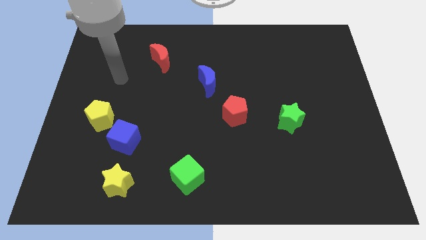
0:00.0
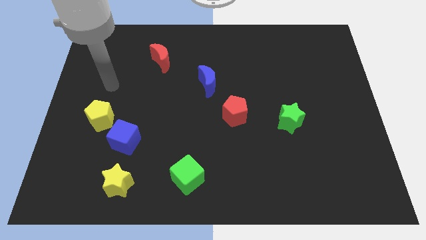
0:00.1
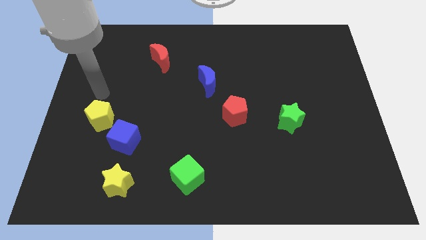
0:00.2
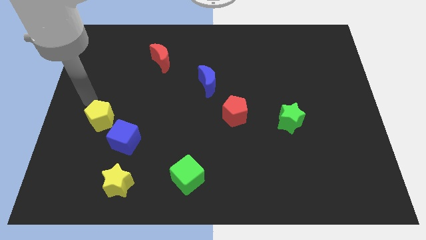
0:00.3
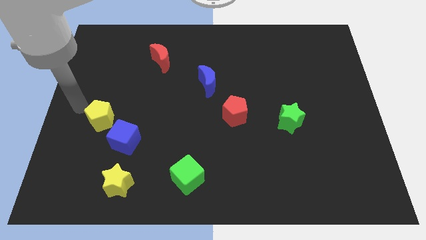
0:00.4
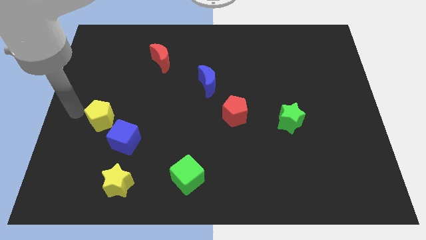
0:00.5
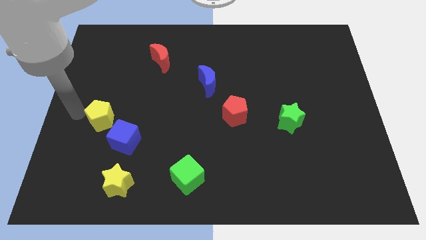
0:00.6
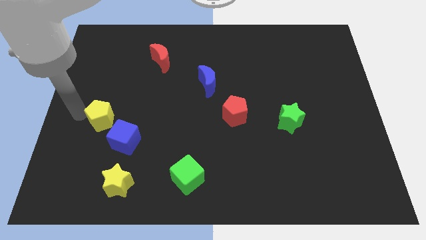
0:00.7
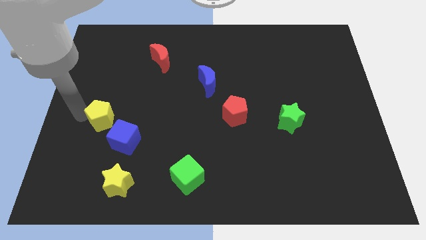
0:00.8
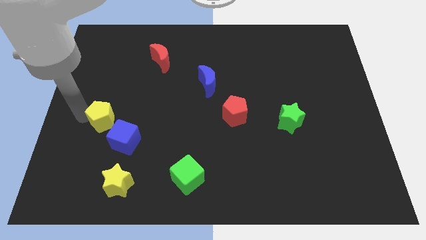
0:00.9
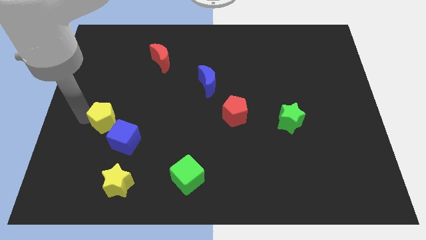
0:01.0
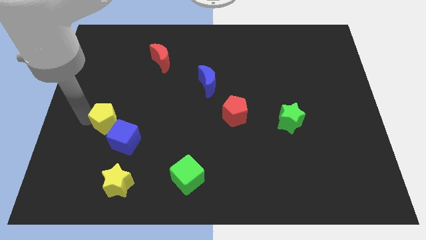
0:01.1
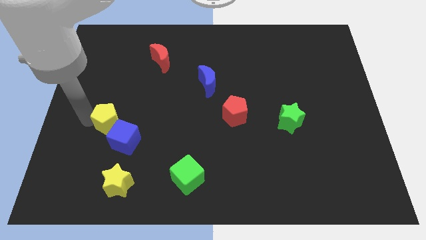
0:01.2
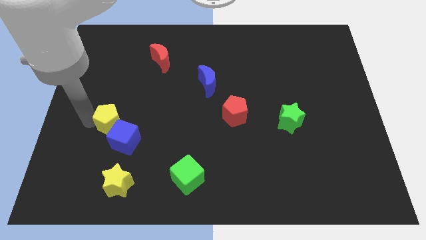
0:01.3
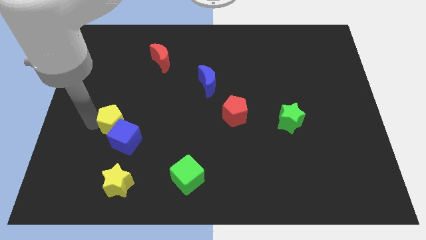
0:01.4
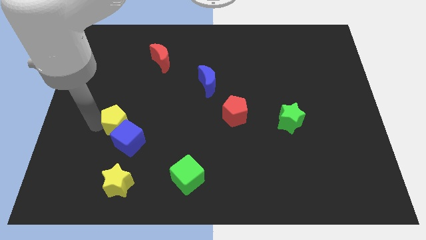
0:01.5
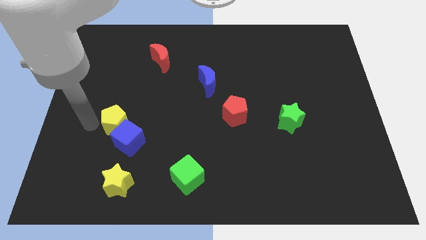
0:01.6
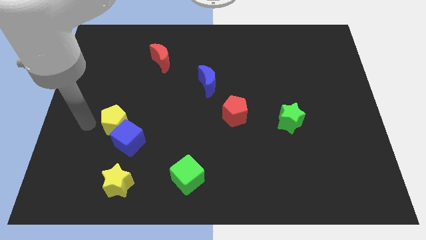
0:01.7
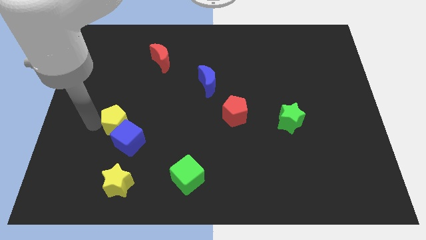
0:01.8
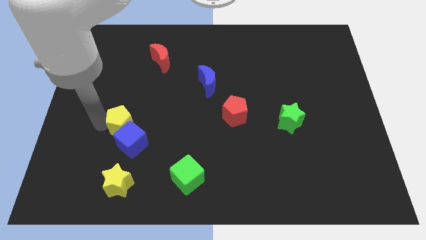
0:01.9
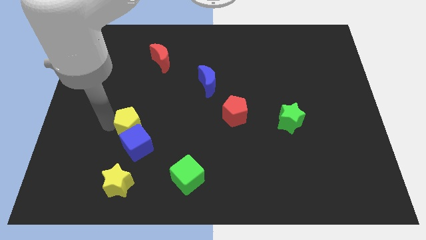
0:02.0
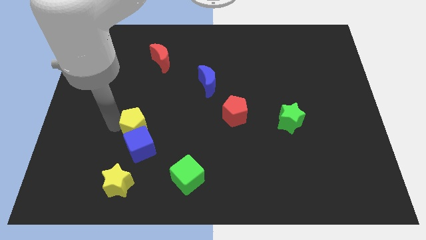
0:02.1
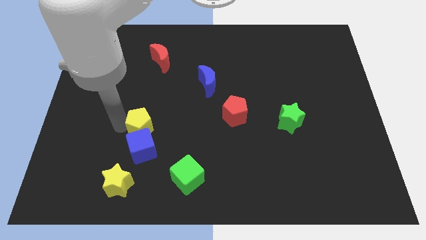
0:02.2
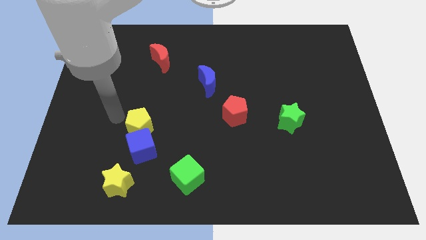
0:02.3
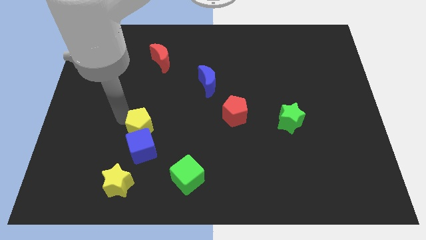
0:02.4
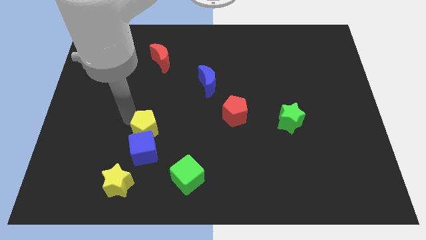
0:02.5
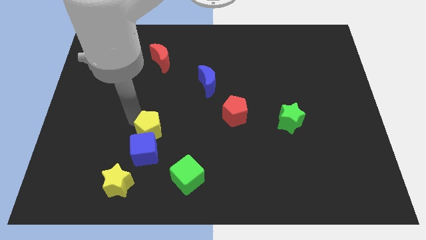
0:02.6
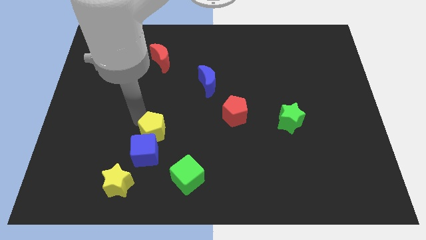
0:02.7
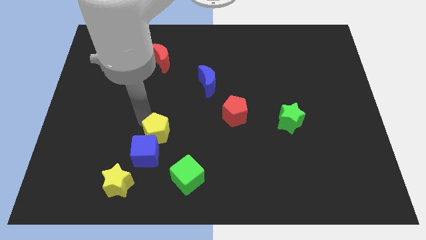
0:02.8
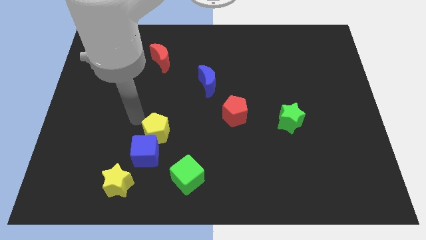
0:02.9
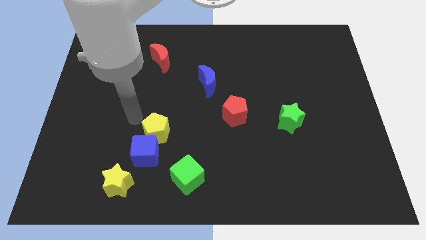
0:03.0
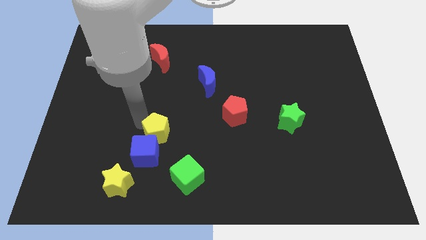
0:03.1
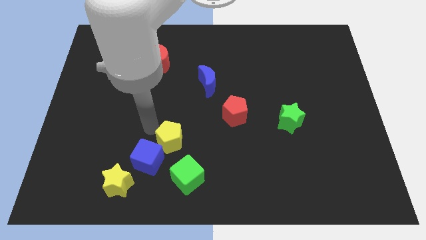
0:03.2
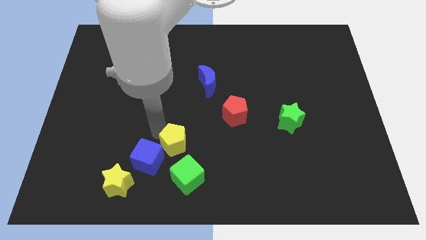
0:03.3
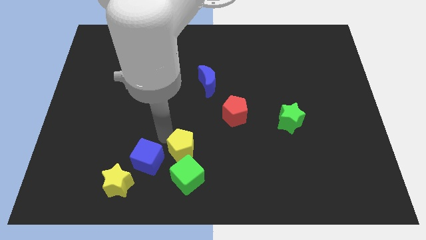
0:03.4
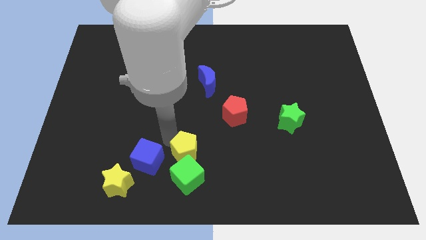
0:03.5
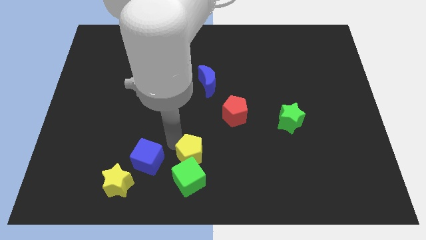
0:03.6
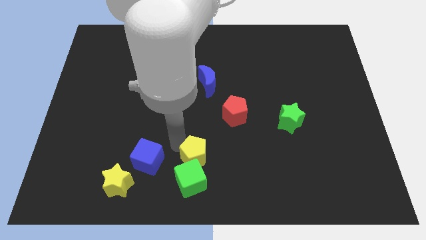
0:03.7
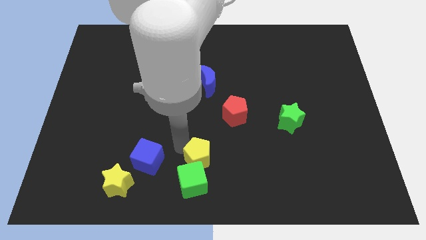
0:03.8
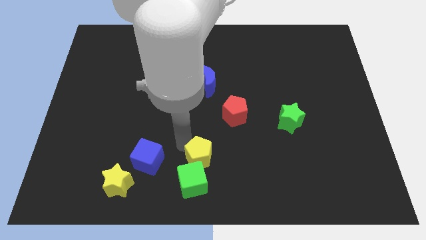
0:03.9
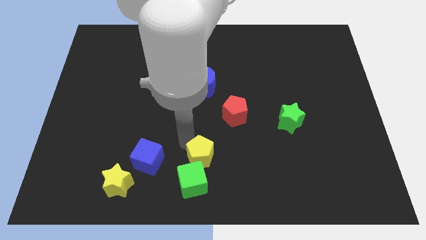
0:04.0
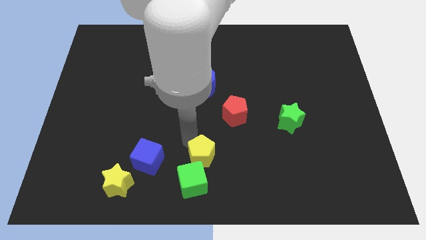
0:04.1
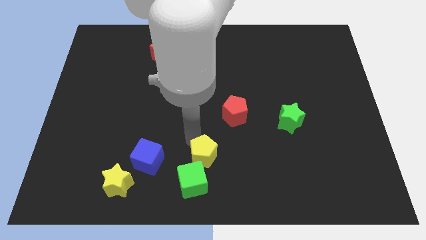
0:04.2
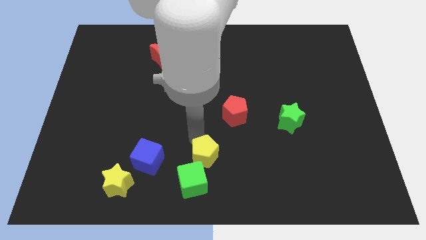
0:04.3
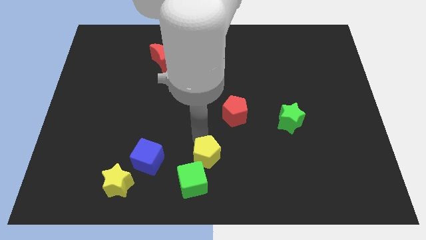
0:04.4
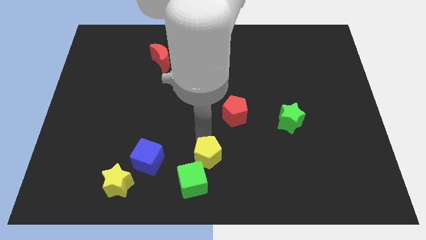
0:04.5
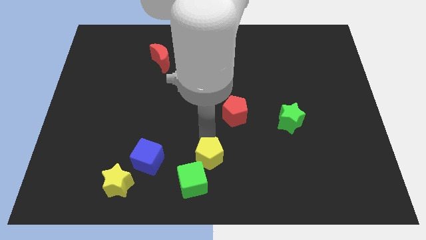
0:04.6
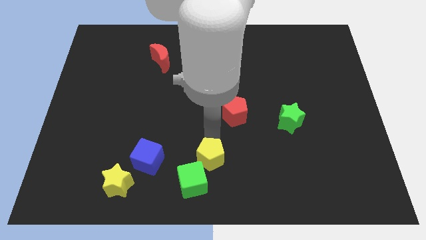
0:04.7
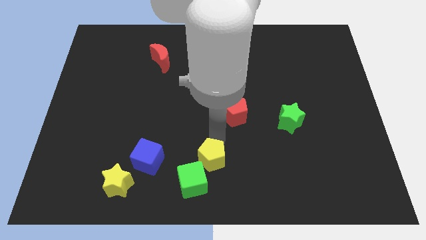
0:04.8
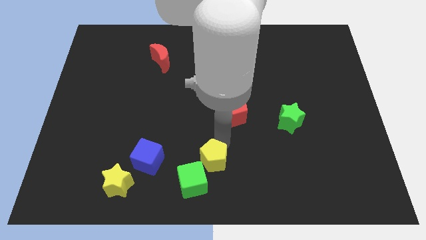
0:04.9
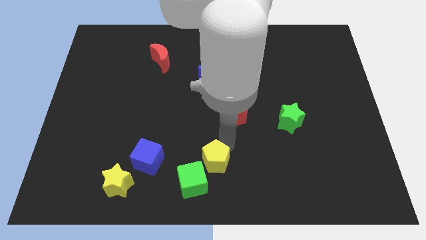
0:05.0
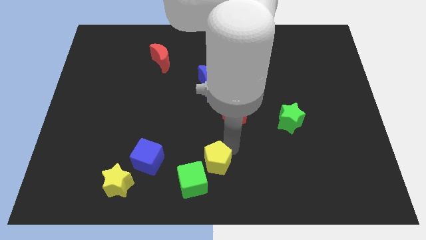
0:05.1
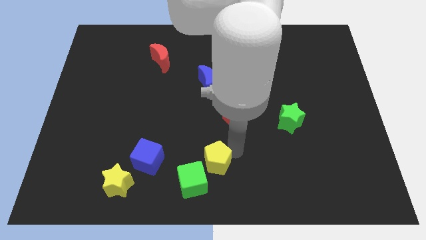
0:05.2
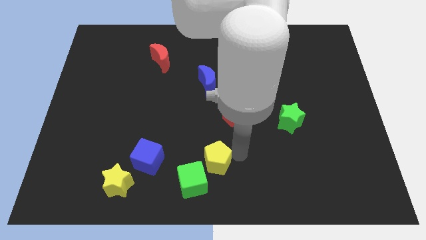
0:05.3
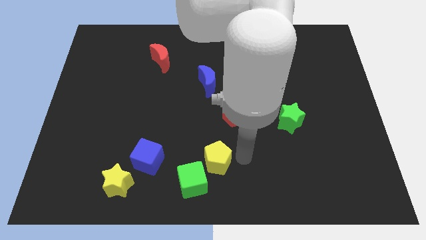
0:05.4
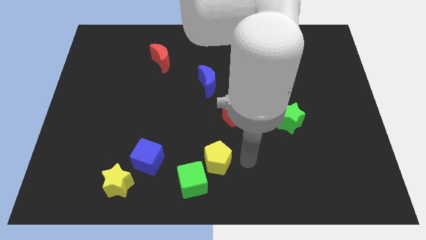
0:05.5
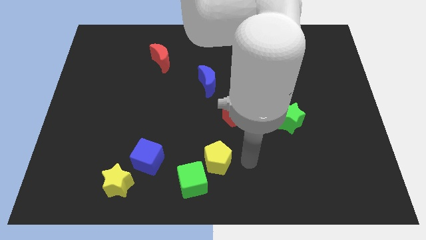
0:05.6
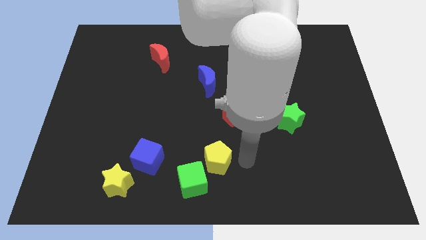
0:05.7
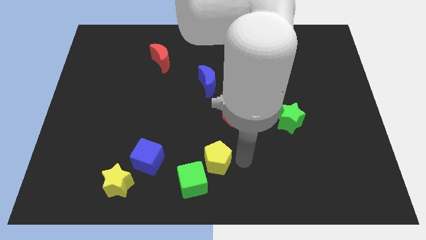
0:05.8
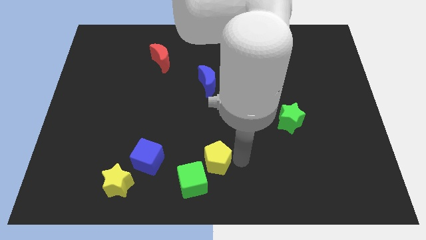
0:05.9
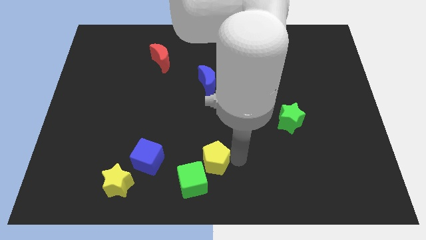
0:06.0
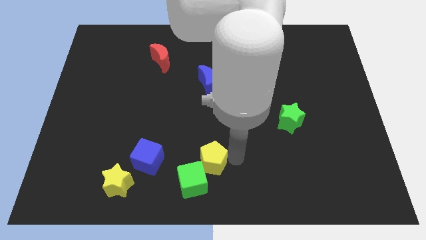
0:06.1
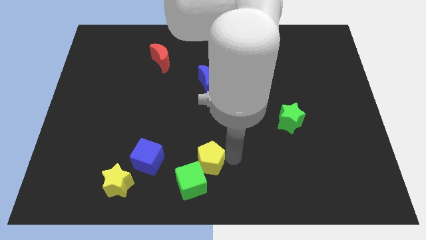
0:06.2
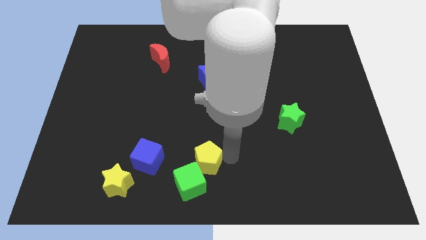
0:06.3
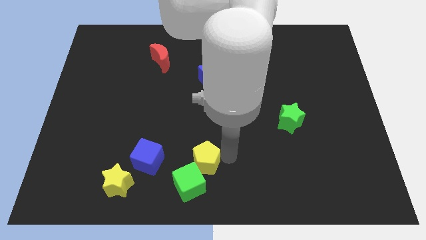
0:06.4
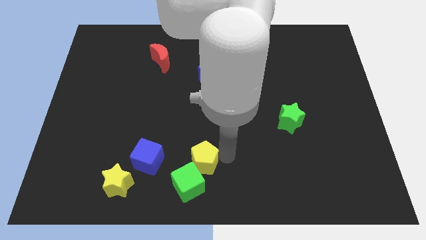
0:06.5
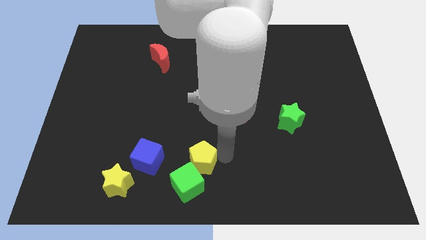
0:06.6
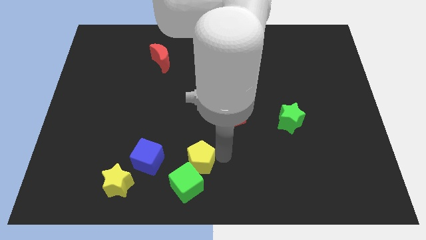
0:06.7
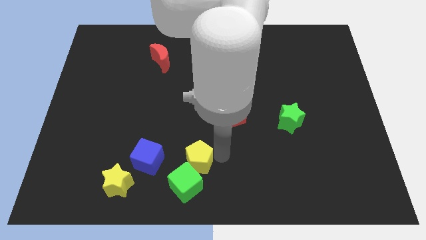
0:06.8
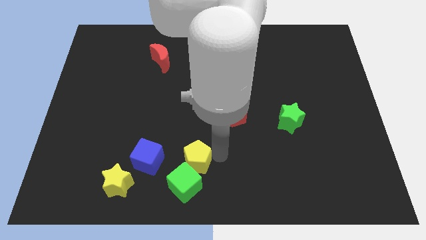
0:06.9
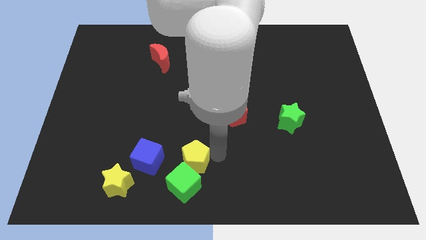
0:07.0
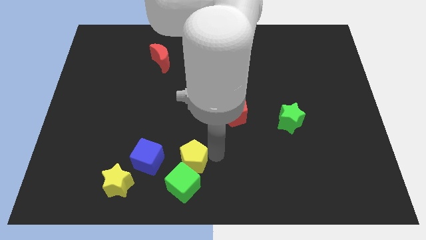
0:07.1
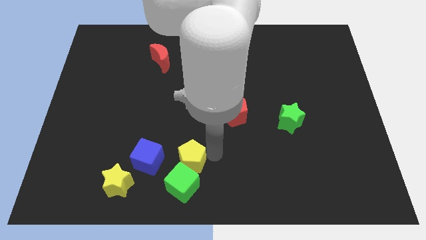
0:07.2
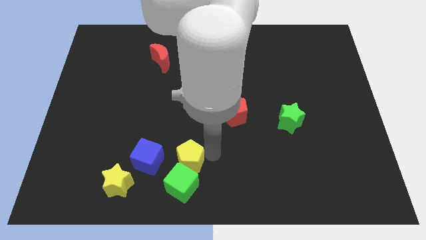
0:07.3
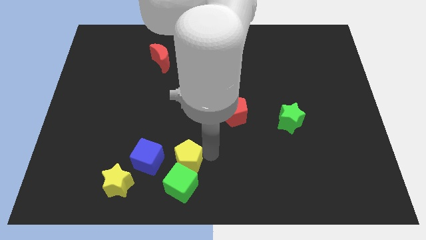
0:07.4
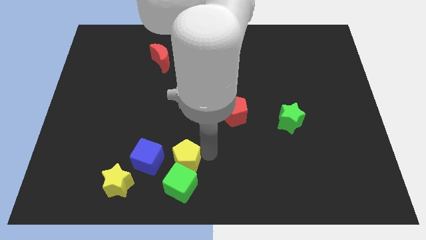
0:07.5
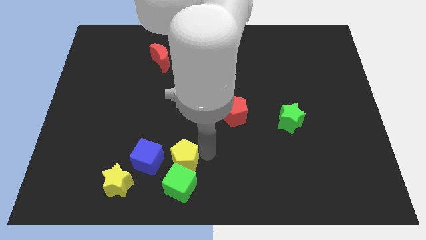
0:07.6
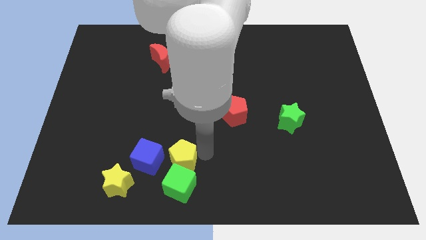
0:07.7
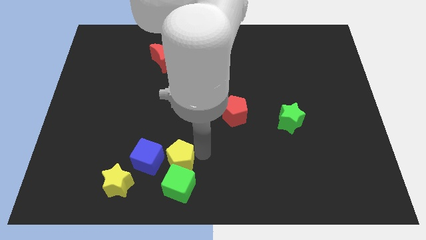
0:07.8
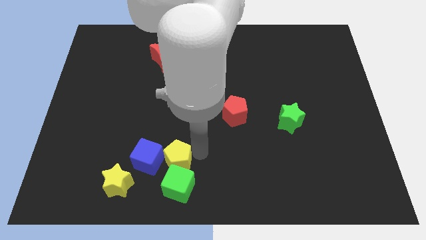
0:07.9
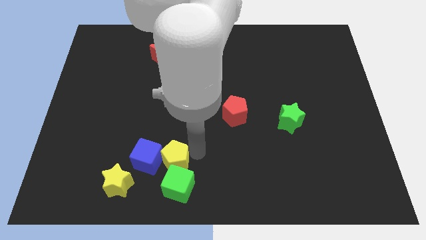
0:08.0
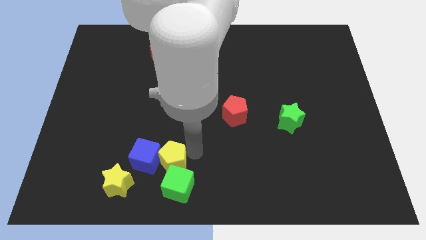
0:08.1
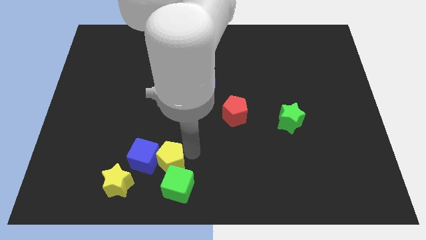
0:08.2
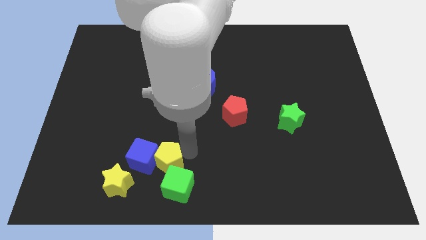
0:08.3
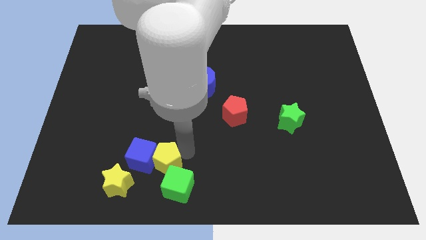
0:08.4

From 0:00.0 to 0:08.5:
move the yellow pentagon just right of the blue cube
